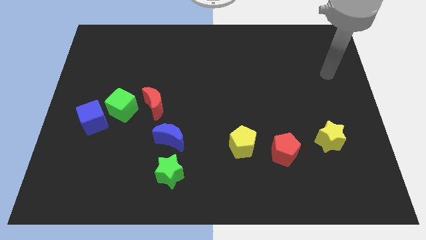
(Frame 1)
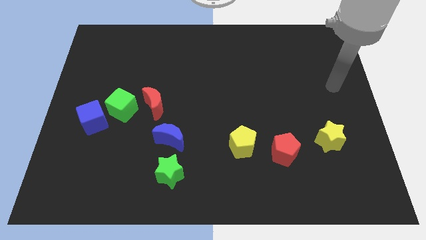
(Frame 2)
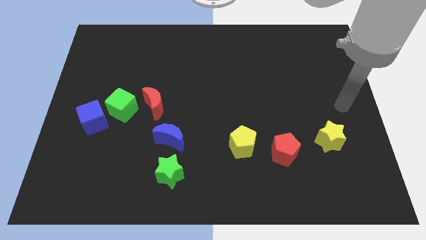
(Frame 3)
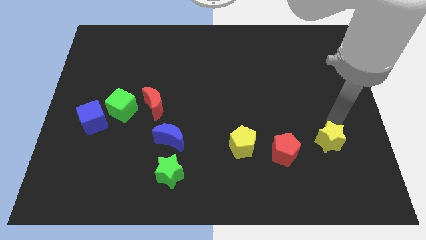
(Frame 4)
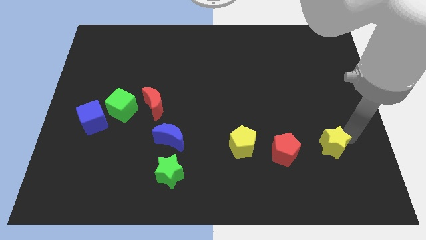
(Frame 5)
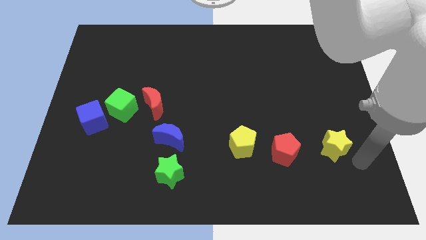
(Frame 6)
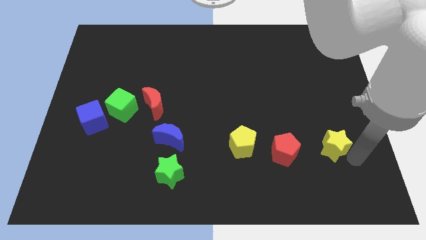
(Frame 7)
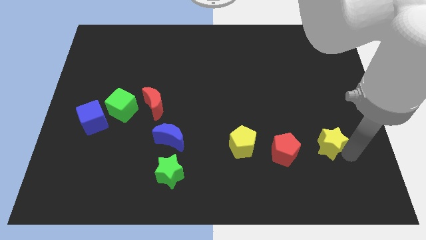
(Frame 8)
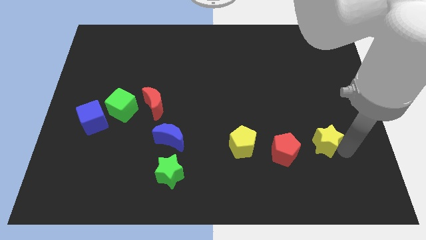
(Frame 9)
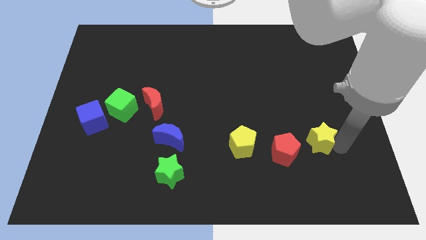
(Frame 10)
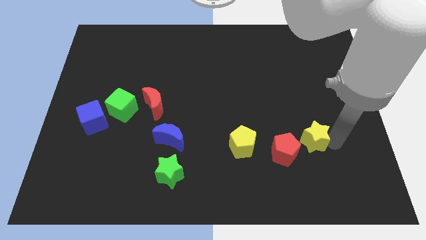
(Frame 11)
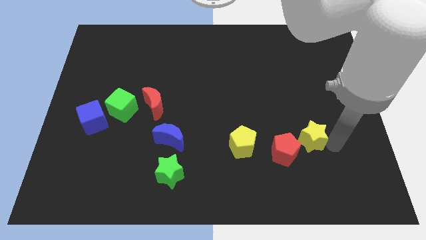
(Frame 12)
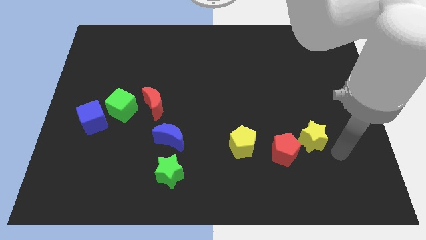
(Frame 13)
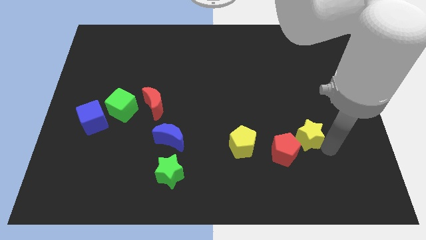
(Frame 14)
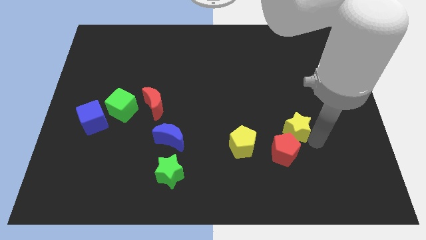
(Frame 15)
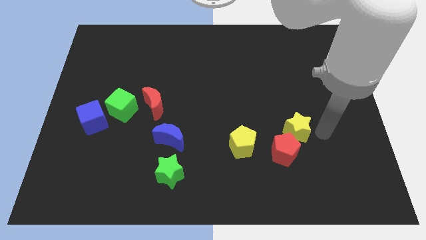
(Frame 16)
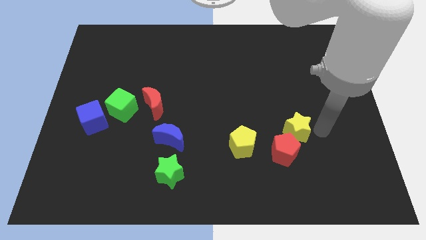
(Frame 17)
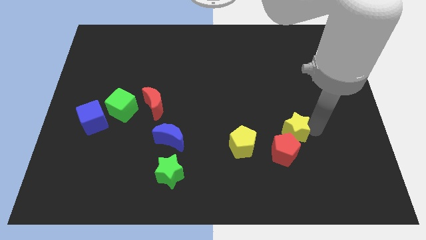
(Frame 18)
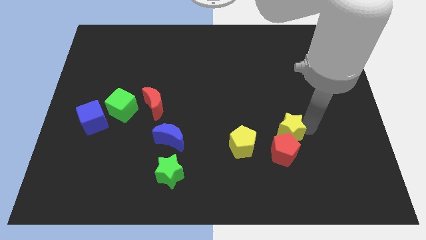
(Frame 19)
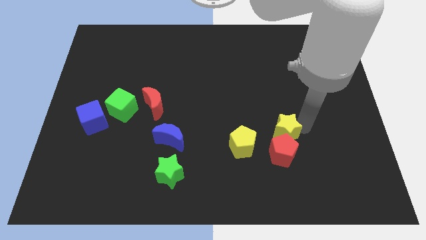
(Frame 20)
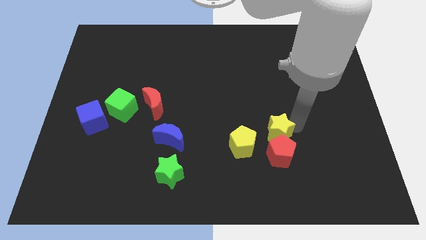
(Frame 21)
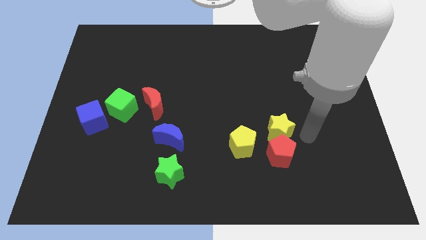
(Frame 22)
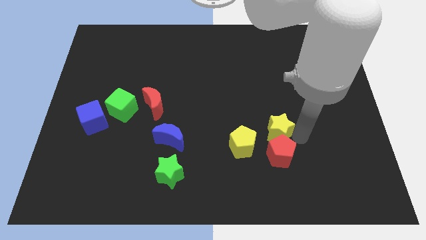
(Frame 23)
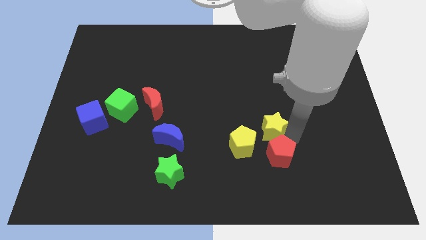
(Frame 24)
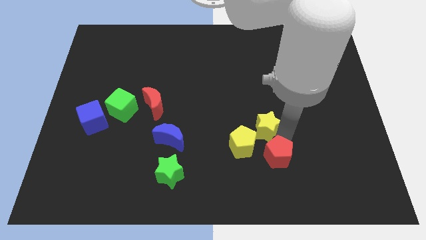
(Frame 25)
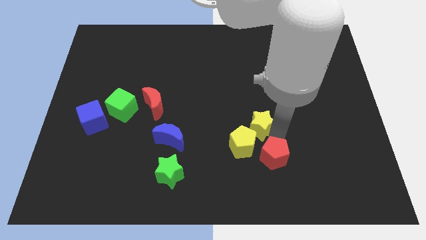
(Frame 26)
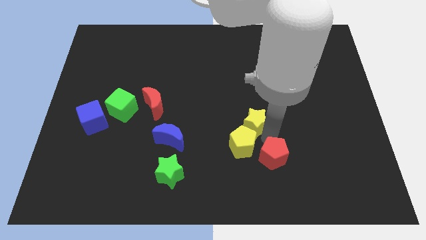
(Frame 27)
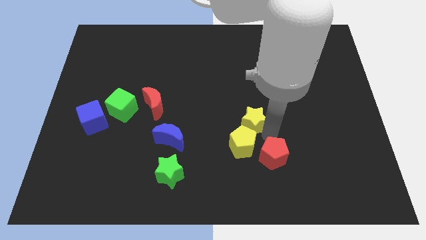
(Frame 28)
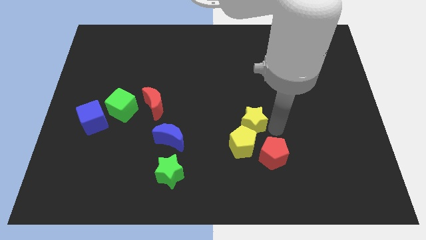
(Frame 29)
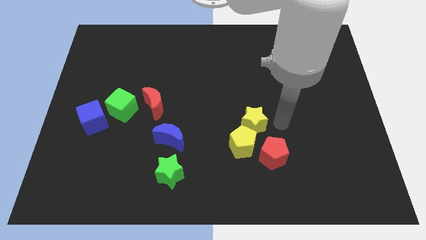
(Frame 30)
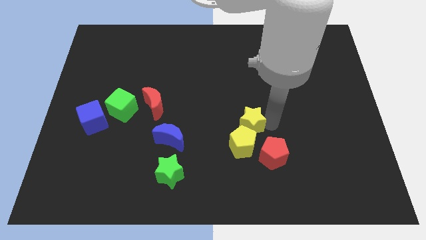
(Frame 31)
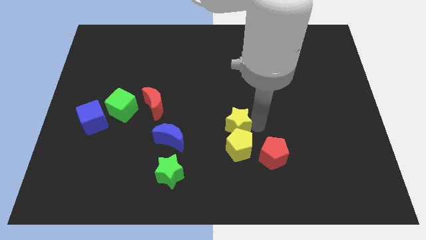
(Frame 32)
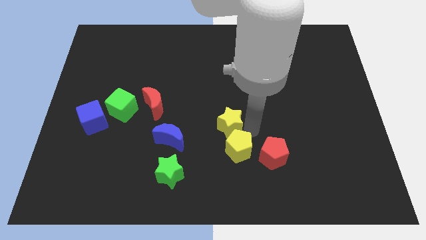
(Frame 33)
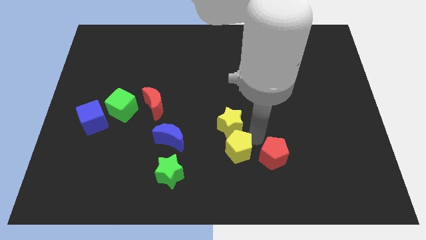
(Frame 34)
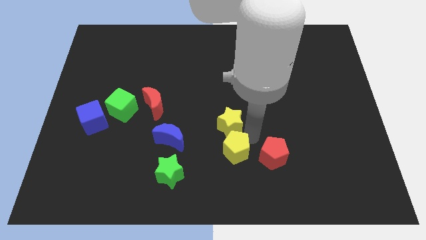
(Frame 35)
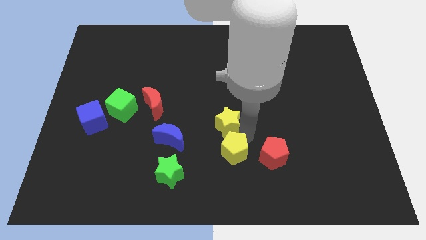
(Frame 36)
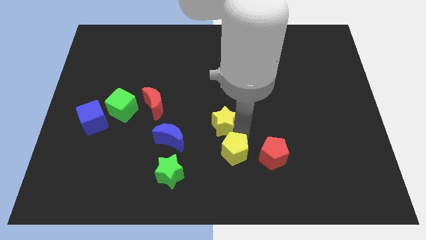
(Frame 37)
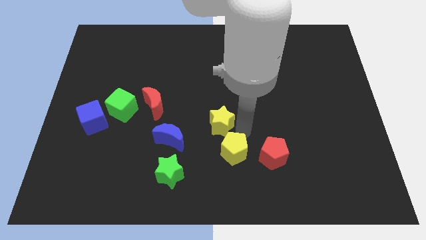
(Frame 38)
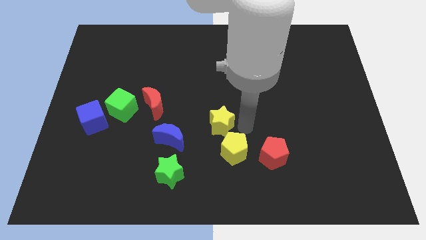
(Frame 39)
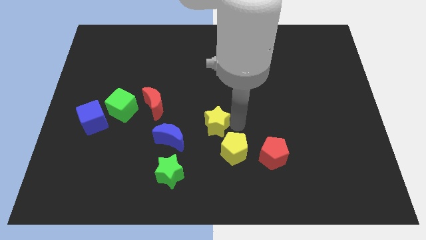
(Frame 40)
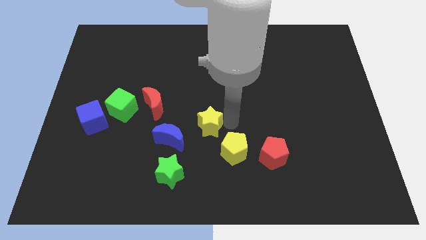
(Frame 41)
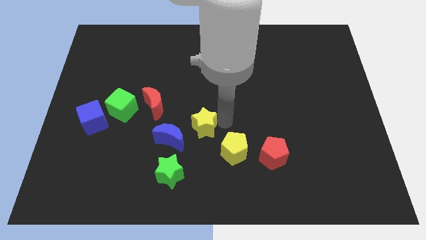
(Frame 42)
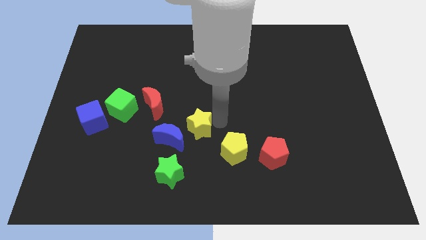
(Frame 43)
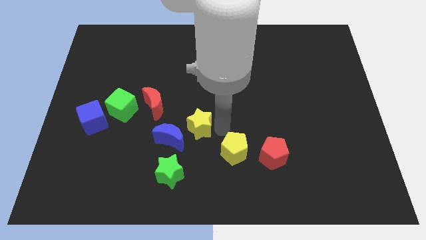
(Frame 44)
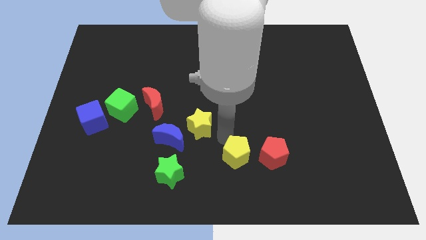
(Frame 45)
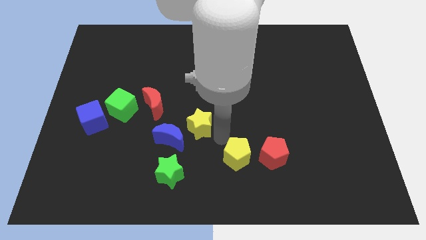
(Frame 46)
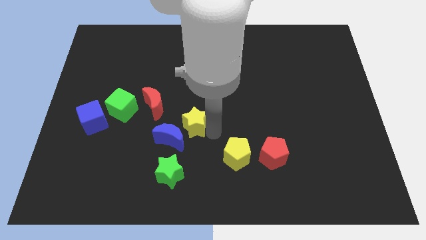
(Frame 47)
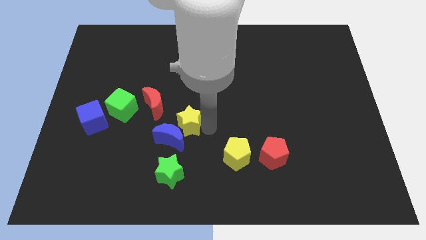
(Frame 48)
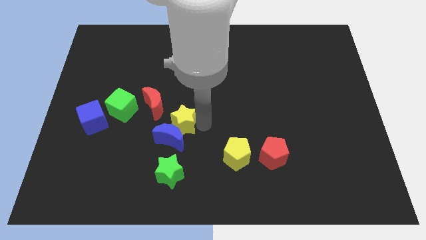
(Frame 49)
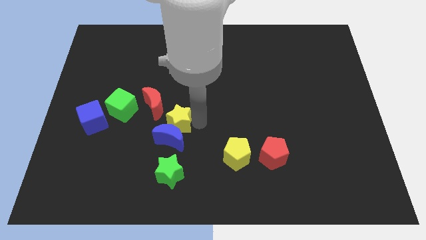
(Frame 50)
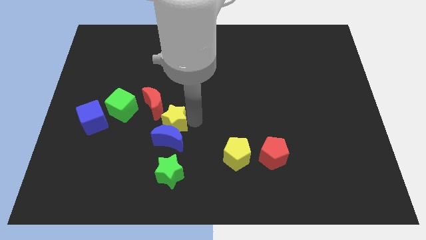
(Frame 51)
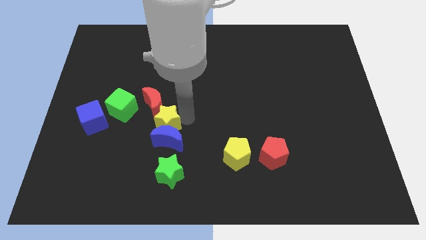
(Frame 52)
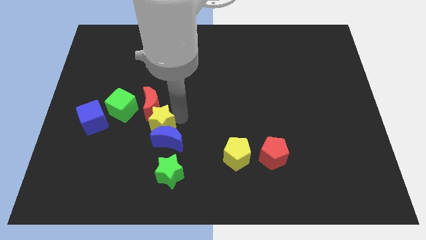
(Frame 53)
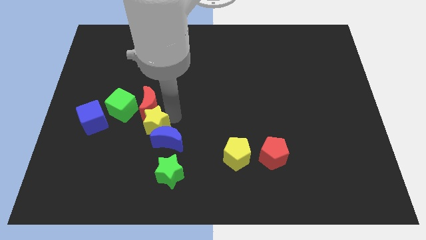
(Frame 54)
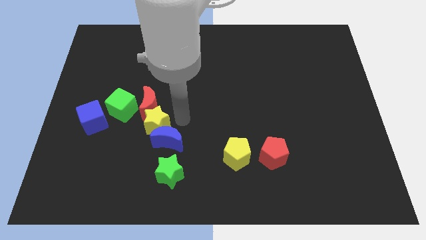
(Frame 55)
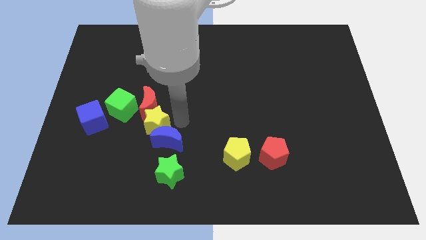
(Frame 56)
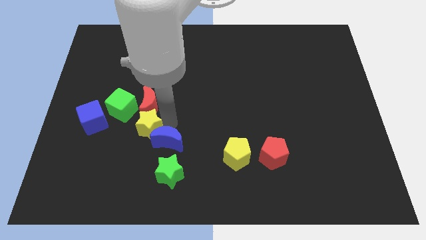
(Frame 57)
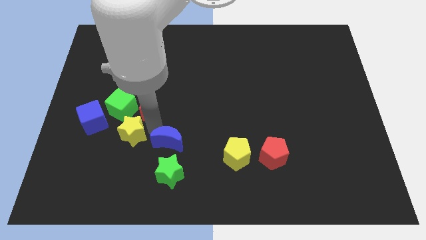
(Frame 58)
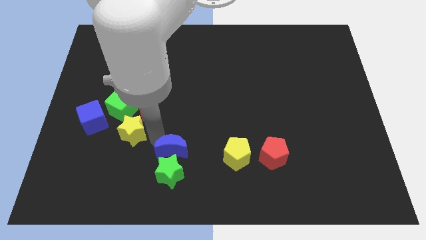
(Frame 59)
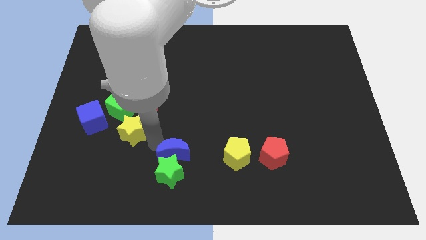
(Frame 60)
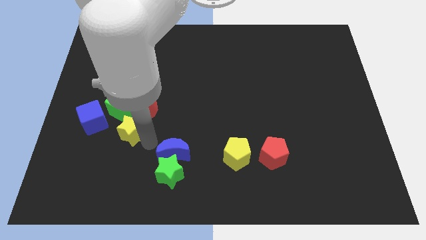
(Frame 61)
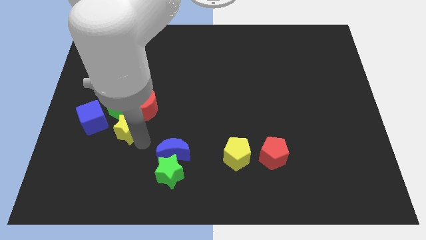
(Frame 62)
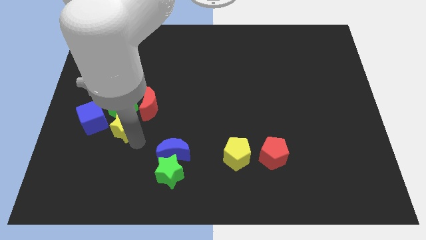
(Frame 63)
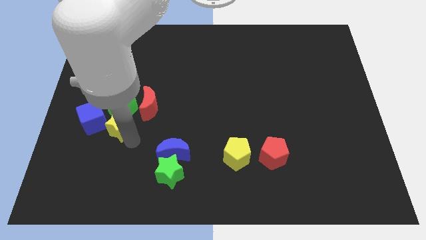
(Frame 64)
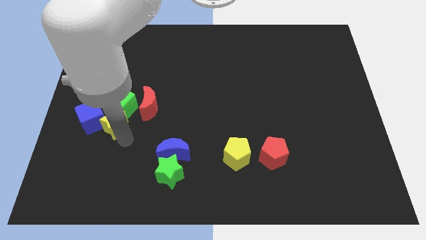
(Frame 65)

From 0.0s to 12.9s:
move the yellow star towards the blue cube
